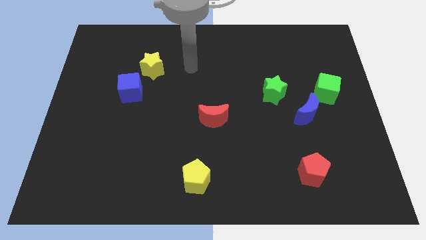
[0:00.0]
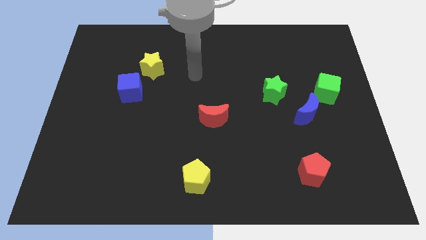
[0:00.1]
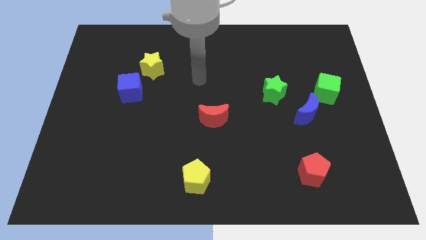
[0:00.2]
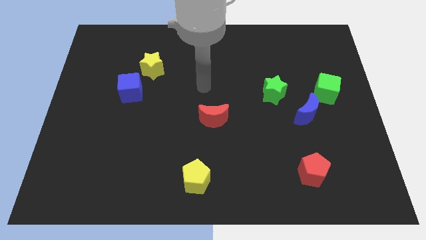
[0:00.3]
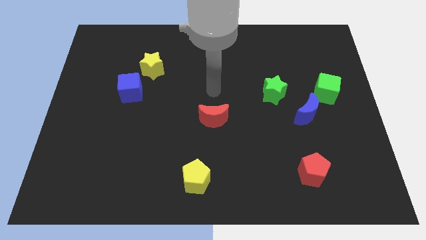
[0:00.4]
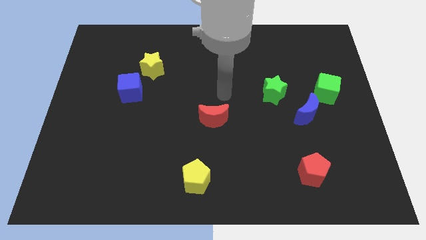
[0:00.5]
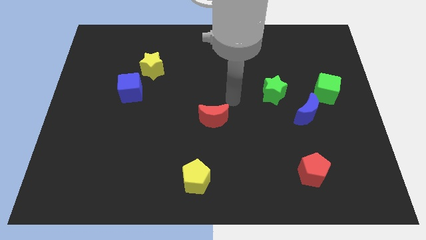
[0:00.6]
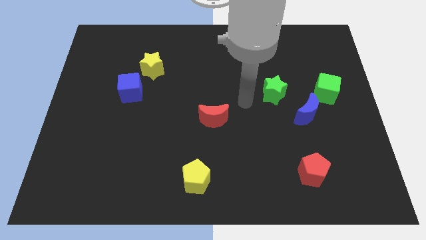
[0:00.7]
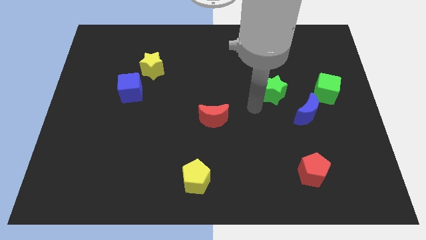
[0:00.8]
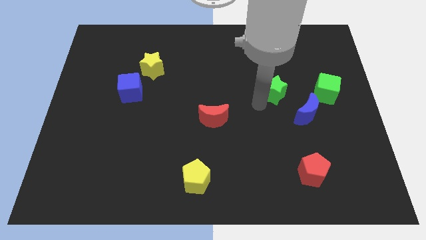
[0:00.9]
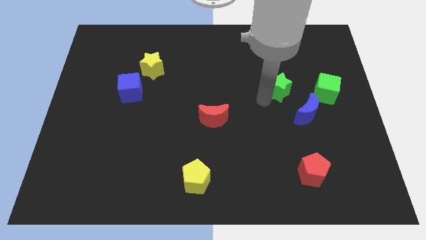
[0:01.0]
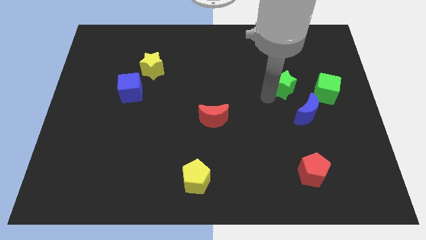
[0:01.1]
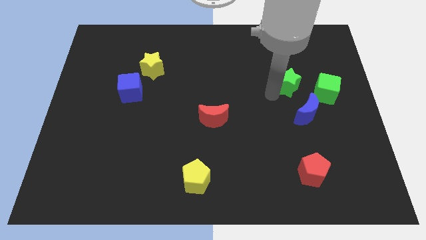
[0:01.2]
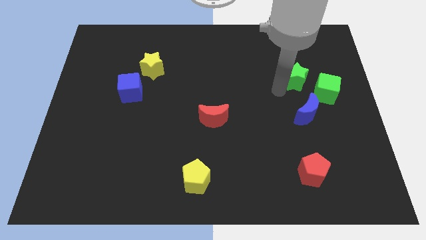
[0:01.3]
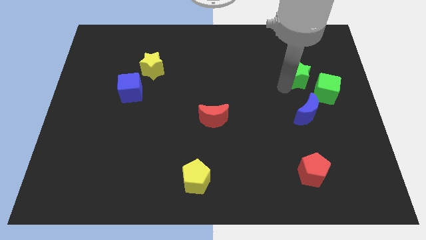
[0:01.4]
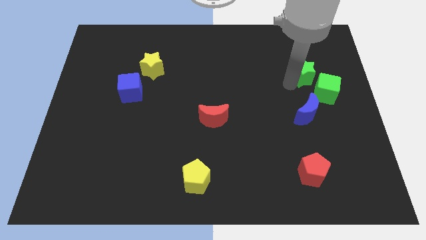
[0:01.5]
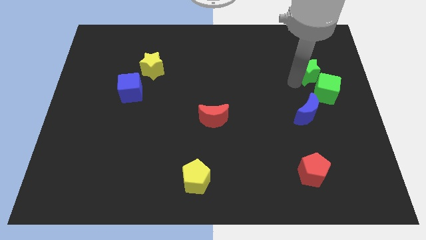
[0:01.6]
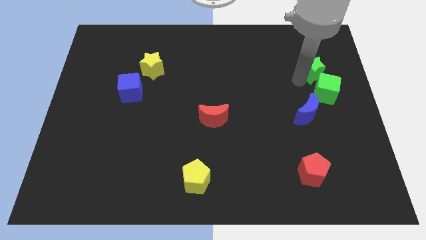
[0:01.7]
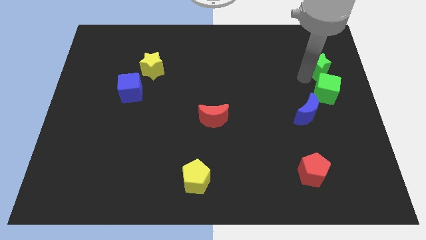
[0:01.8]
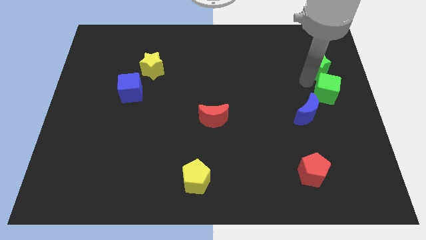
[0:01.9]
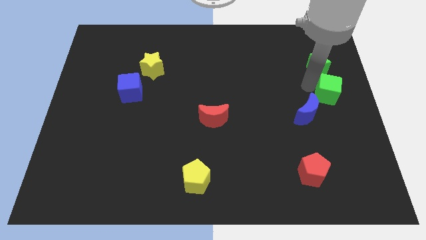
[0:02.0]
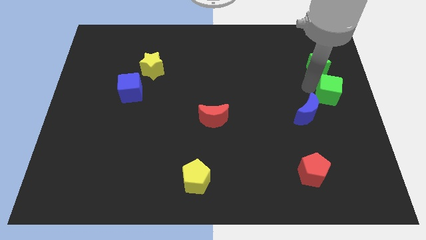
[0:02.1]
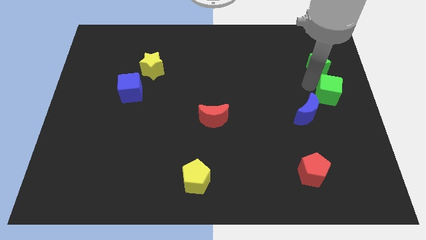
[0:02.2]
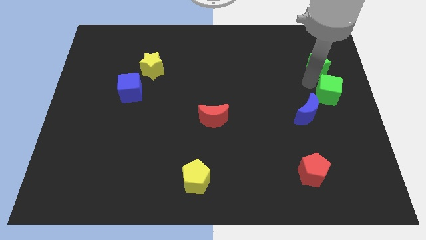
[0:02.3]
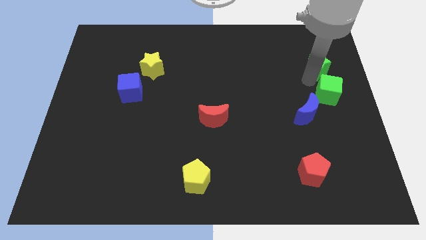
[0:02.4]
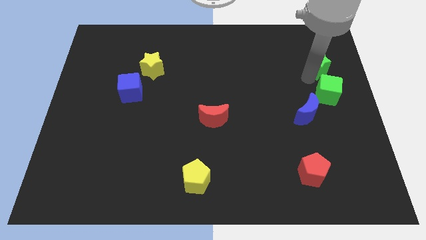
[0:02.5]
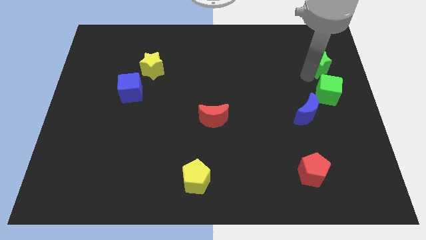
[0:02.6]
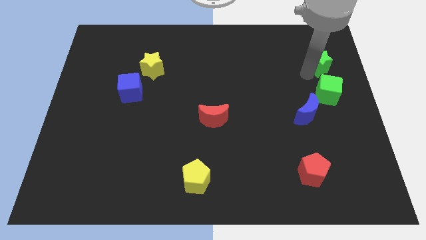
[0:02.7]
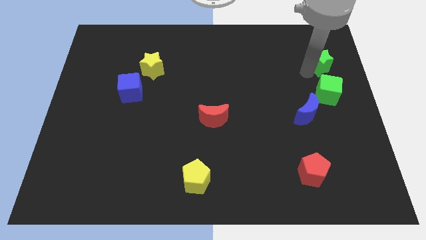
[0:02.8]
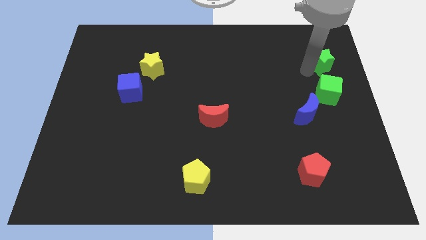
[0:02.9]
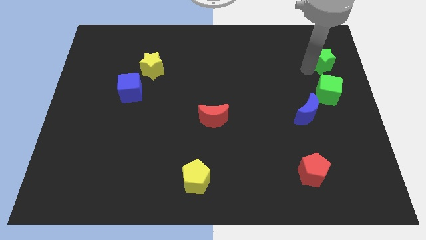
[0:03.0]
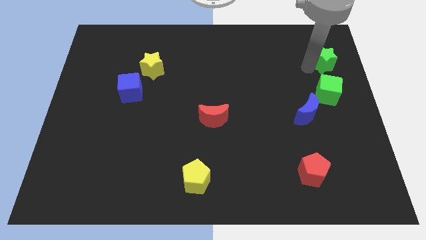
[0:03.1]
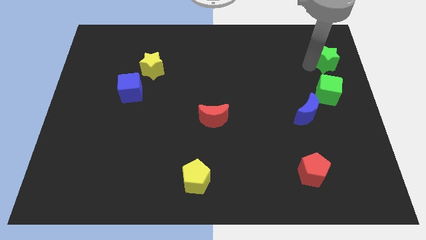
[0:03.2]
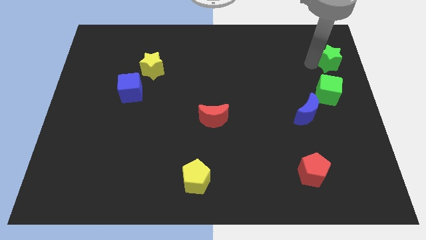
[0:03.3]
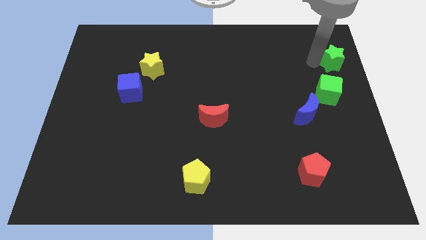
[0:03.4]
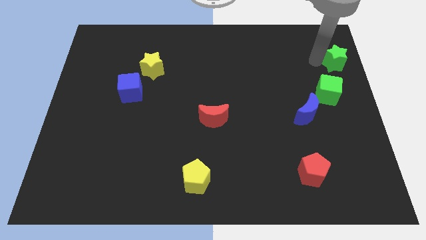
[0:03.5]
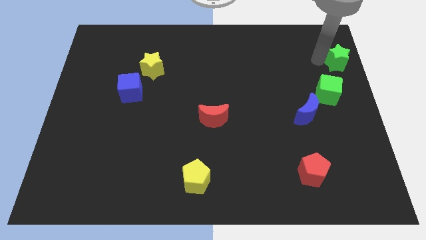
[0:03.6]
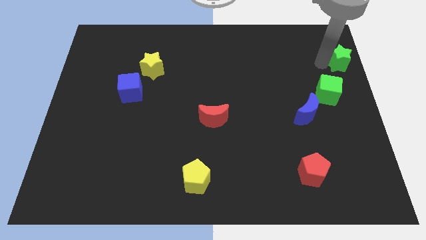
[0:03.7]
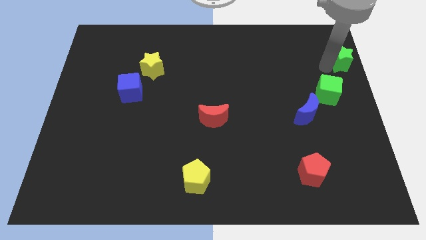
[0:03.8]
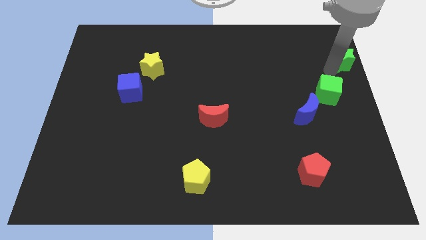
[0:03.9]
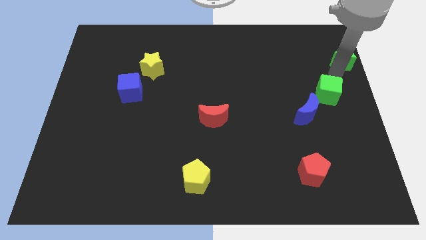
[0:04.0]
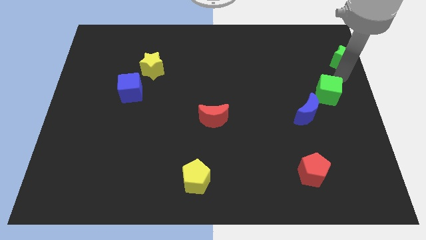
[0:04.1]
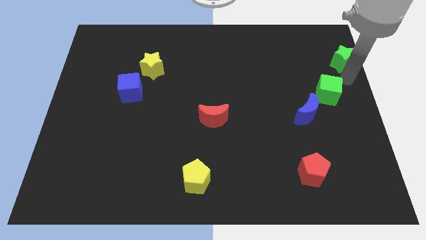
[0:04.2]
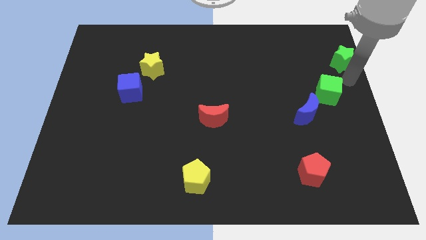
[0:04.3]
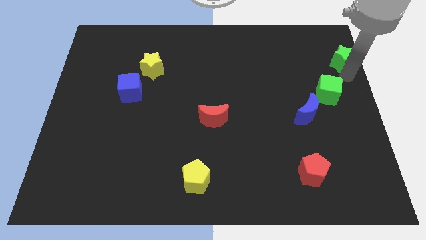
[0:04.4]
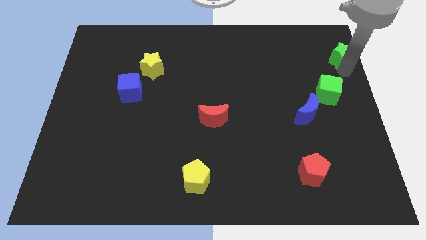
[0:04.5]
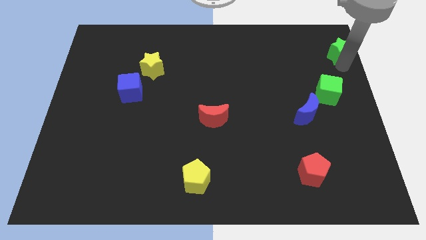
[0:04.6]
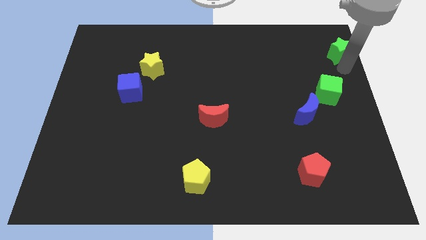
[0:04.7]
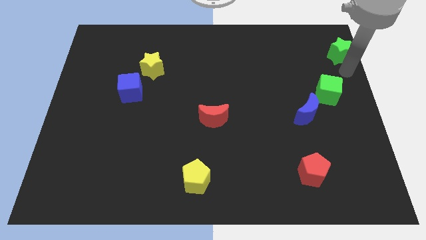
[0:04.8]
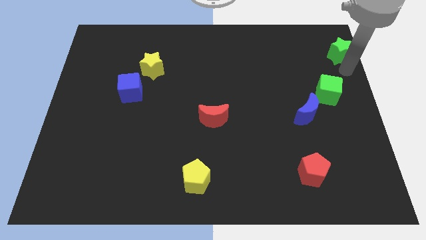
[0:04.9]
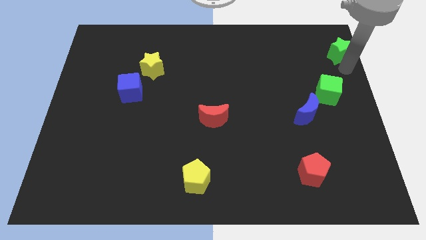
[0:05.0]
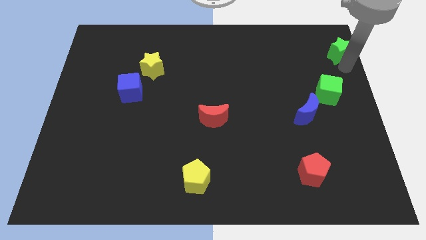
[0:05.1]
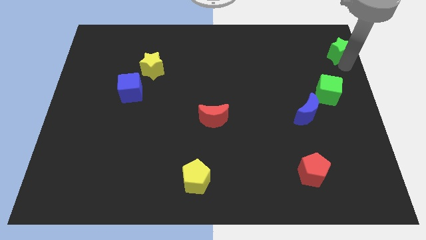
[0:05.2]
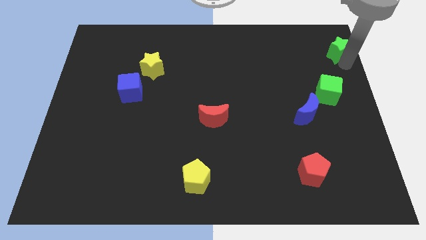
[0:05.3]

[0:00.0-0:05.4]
push the green star to the top right

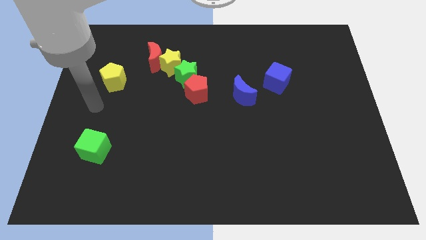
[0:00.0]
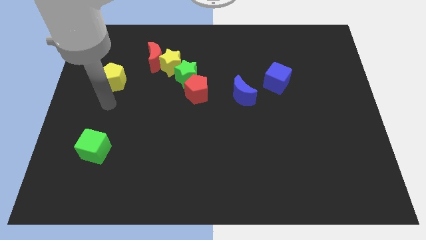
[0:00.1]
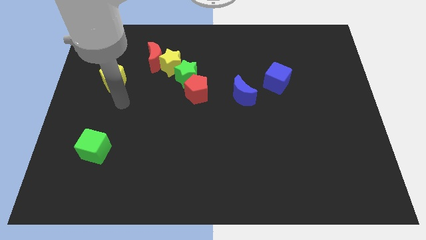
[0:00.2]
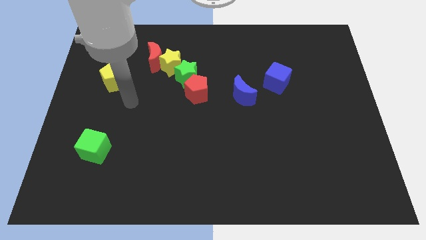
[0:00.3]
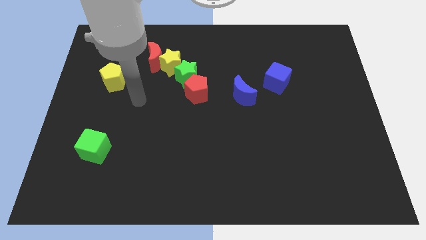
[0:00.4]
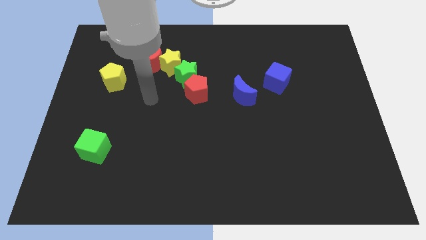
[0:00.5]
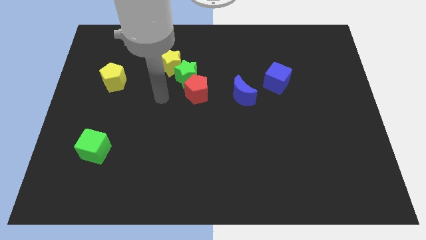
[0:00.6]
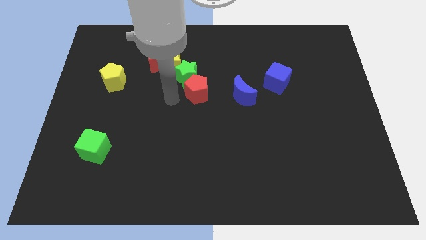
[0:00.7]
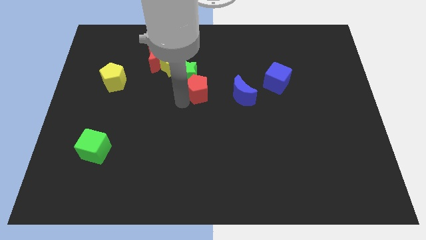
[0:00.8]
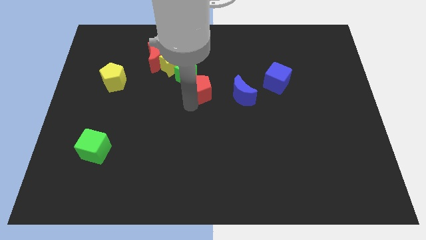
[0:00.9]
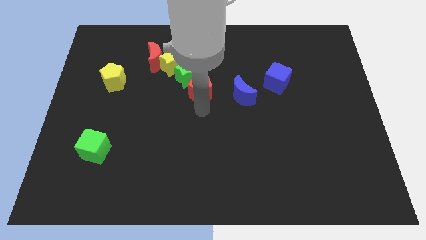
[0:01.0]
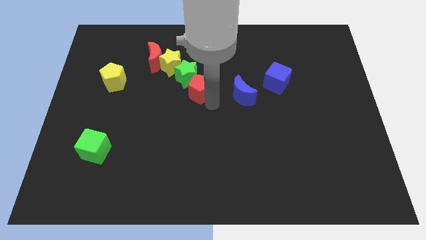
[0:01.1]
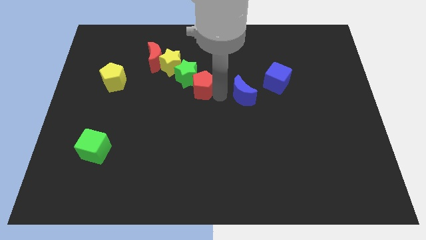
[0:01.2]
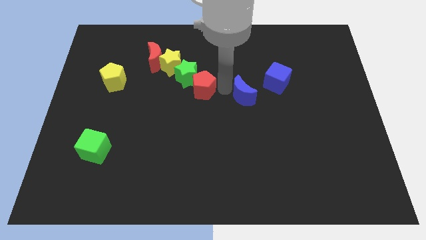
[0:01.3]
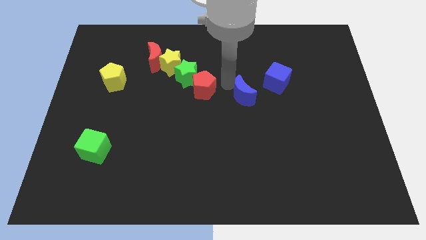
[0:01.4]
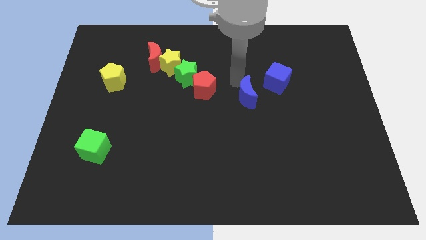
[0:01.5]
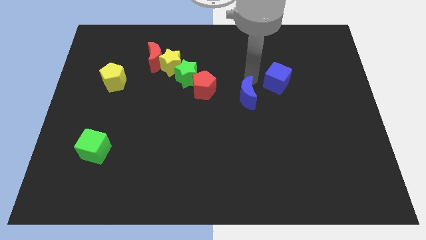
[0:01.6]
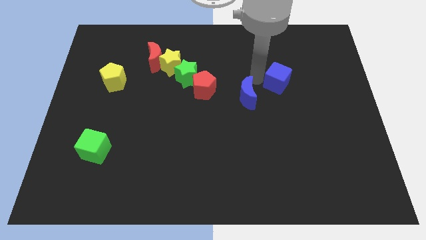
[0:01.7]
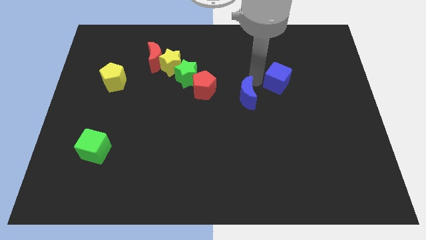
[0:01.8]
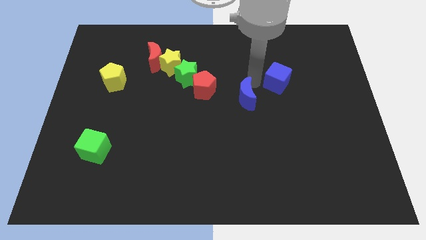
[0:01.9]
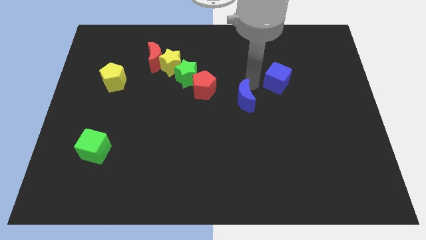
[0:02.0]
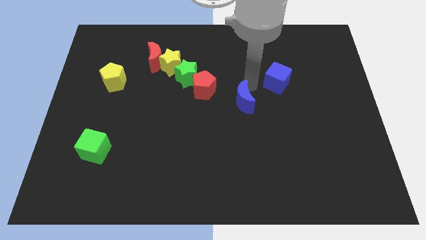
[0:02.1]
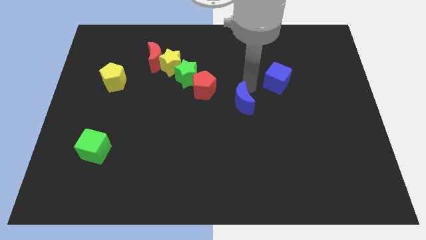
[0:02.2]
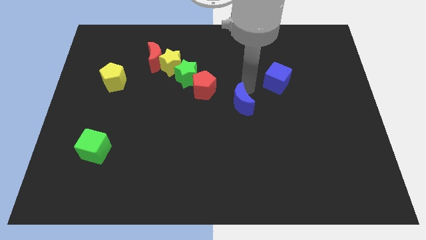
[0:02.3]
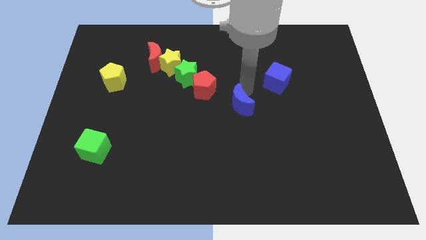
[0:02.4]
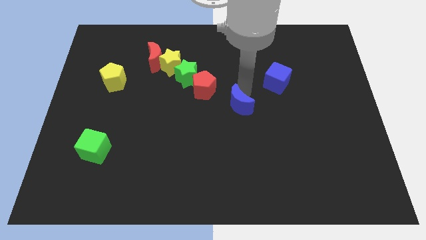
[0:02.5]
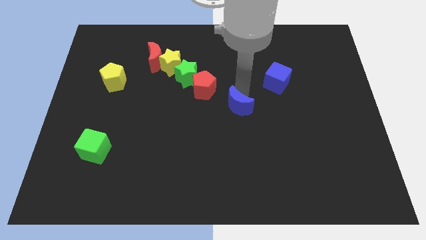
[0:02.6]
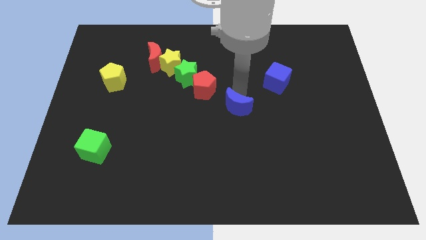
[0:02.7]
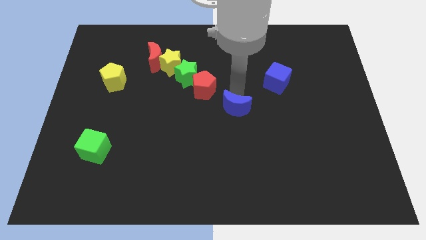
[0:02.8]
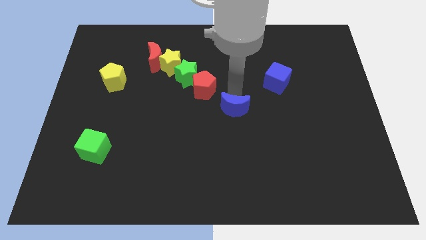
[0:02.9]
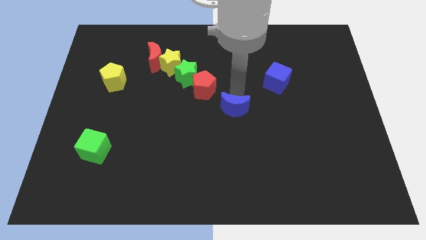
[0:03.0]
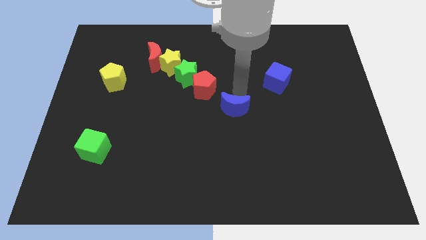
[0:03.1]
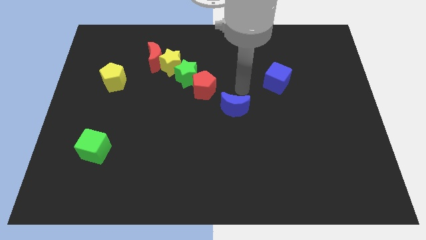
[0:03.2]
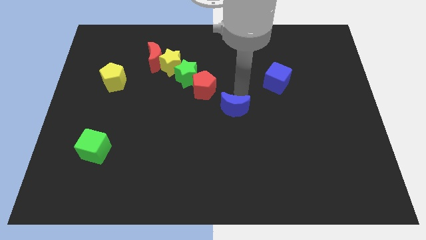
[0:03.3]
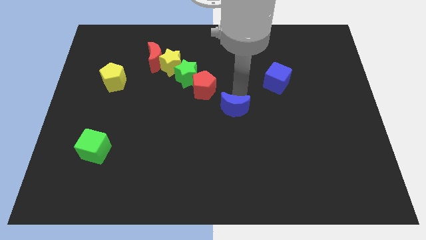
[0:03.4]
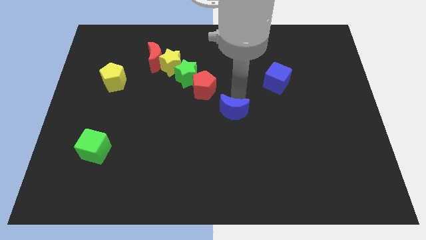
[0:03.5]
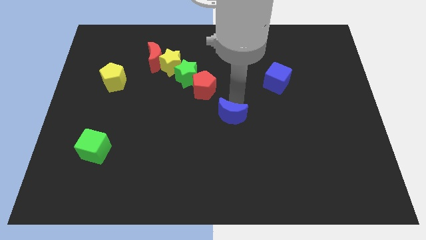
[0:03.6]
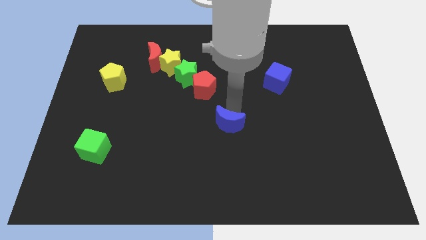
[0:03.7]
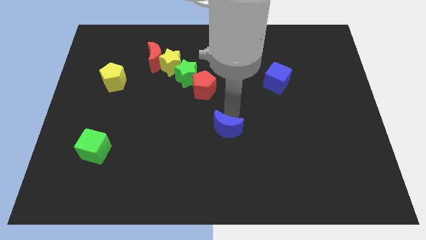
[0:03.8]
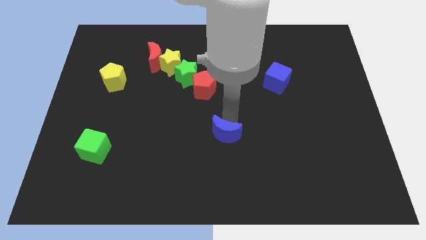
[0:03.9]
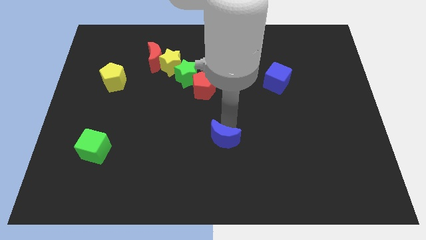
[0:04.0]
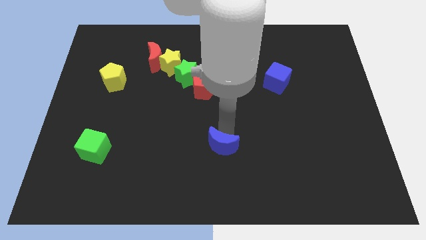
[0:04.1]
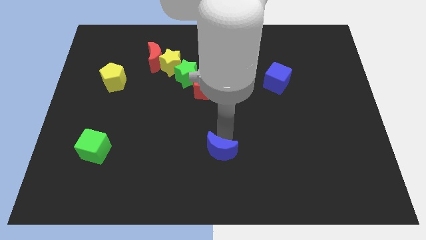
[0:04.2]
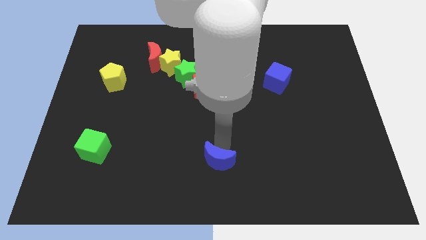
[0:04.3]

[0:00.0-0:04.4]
push the blue moon to the bottom side
